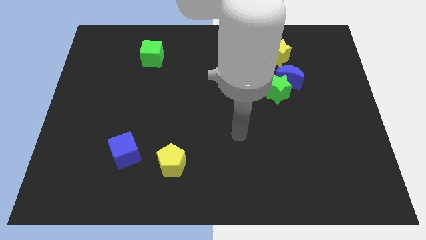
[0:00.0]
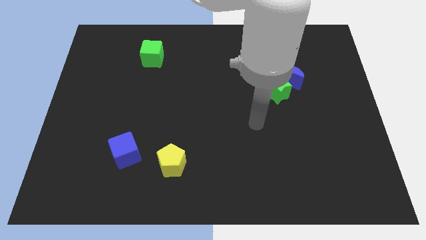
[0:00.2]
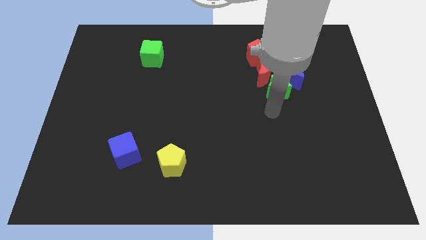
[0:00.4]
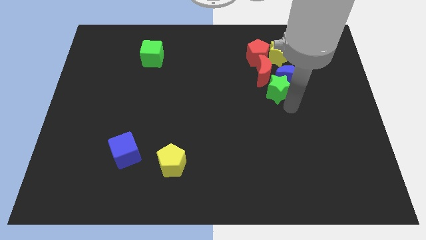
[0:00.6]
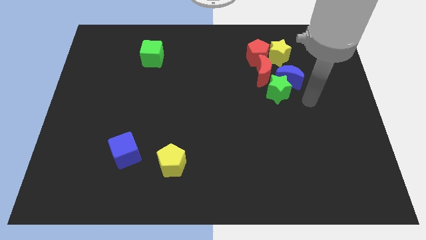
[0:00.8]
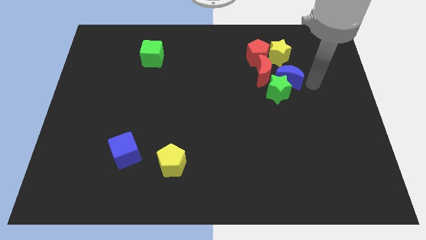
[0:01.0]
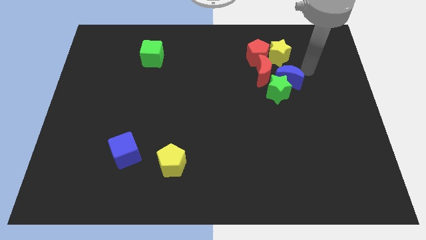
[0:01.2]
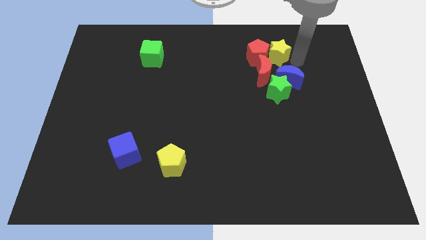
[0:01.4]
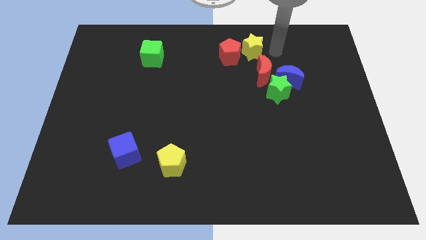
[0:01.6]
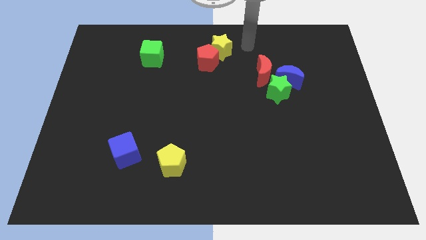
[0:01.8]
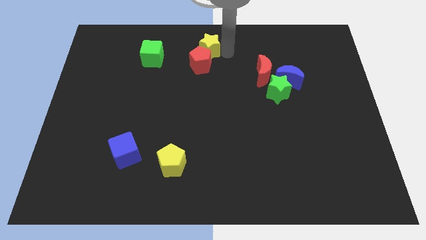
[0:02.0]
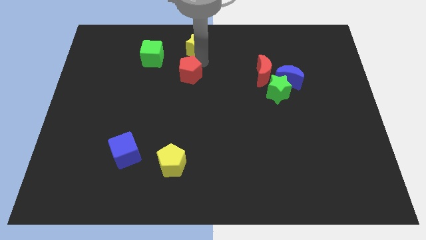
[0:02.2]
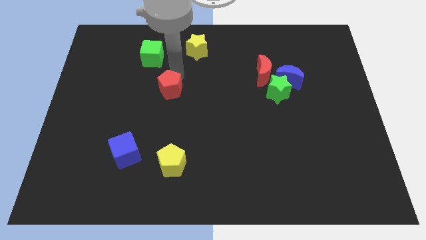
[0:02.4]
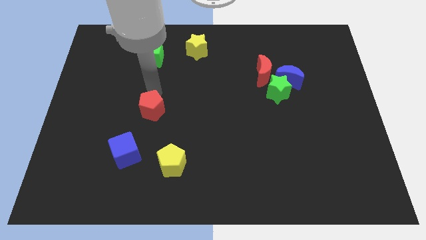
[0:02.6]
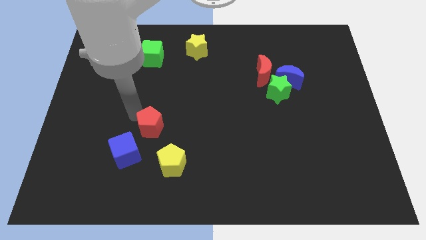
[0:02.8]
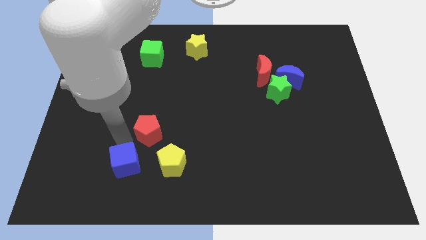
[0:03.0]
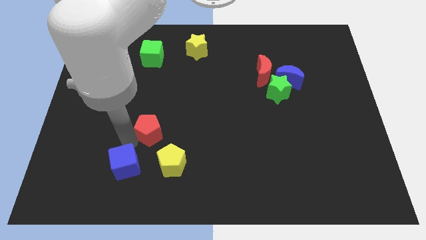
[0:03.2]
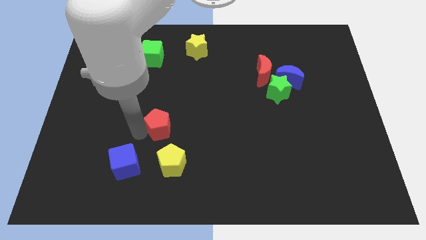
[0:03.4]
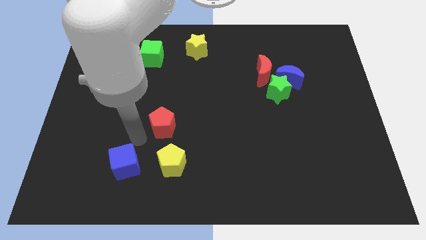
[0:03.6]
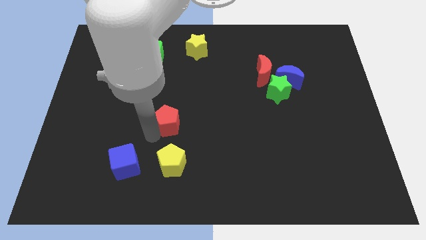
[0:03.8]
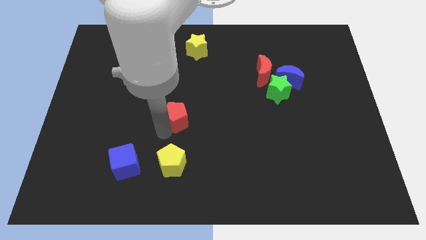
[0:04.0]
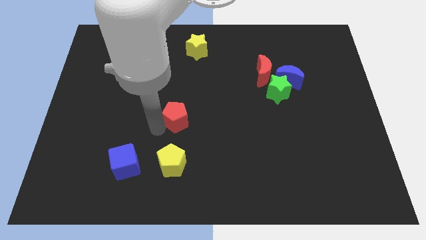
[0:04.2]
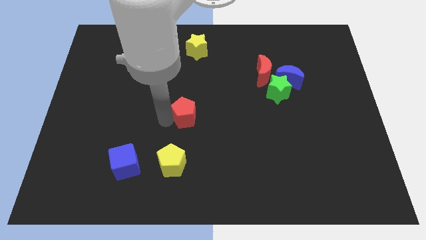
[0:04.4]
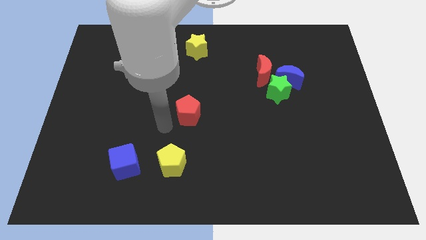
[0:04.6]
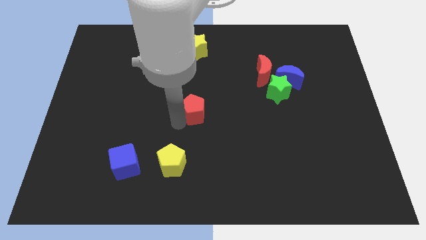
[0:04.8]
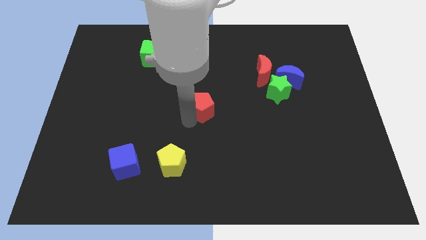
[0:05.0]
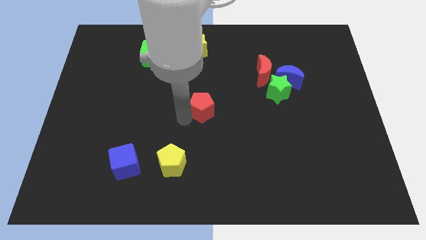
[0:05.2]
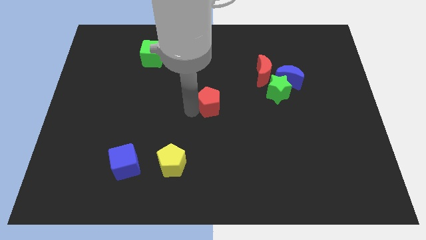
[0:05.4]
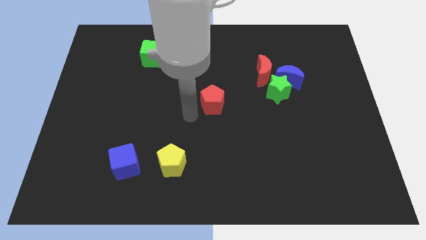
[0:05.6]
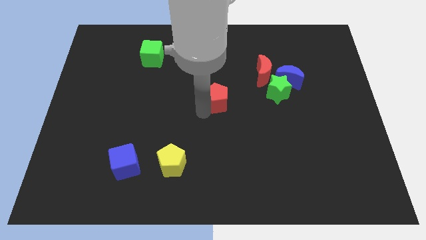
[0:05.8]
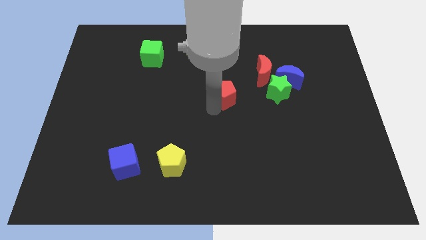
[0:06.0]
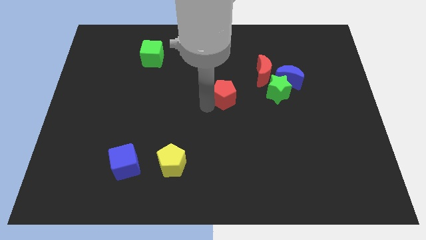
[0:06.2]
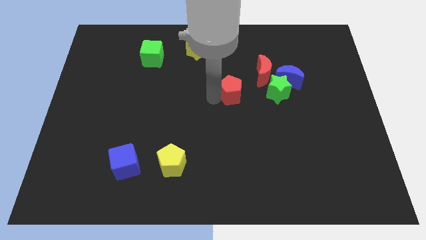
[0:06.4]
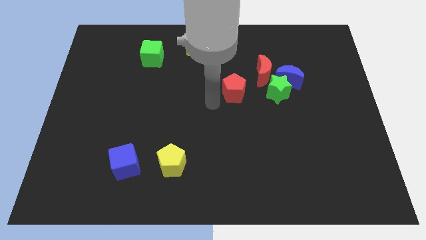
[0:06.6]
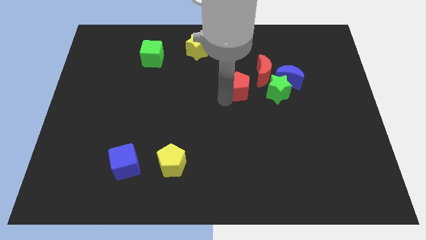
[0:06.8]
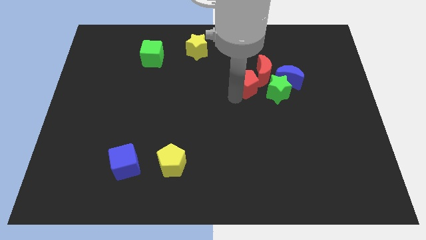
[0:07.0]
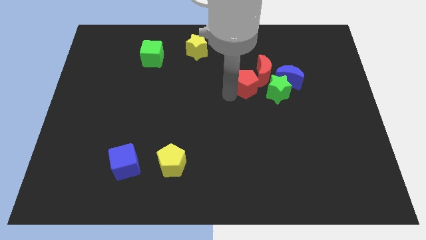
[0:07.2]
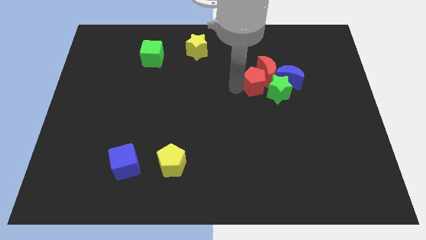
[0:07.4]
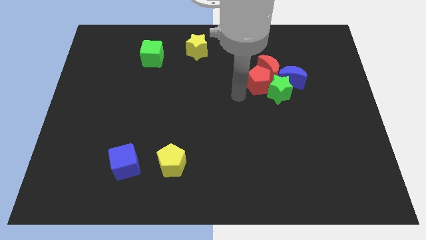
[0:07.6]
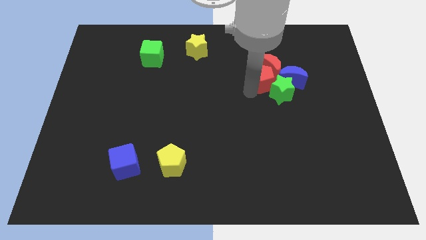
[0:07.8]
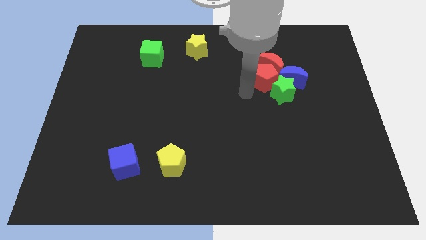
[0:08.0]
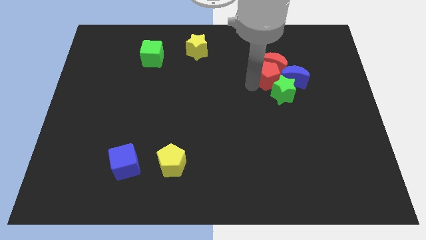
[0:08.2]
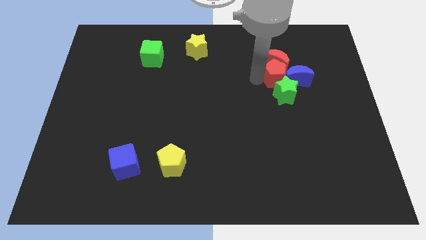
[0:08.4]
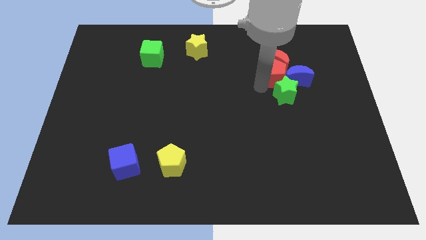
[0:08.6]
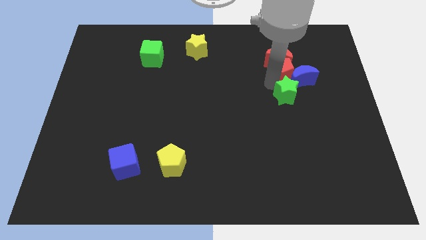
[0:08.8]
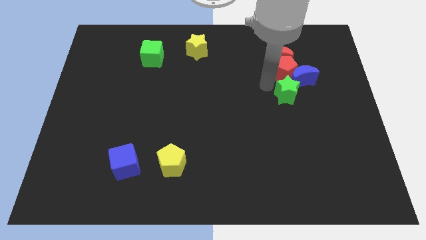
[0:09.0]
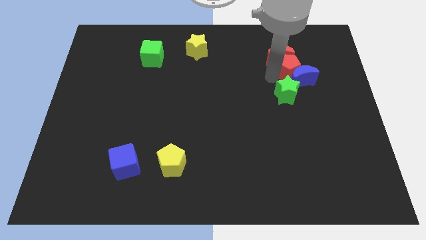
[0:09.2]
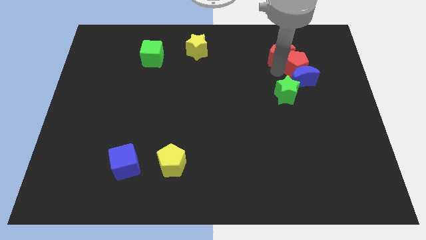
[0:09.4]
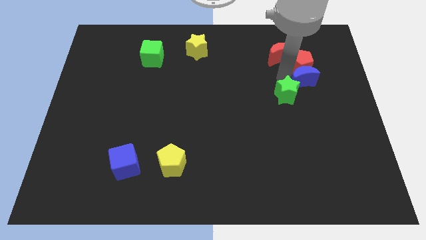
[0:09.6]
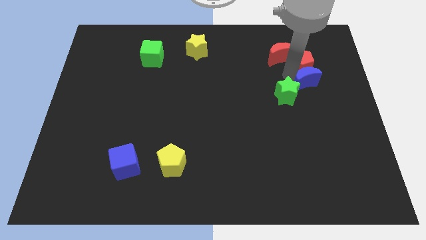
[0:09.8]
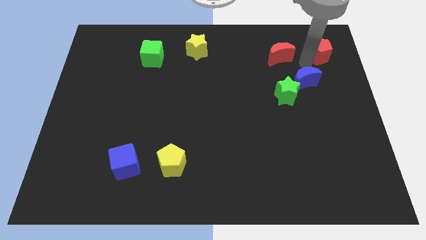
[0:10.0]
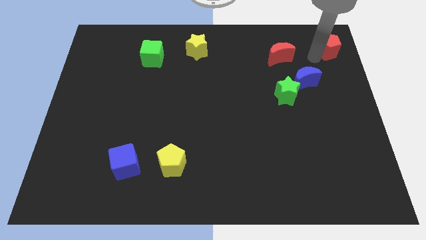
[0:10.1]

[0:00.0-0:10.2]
push the red pentagon to the top right

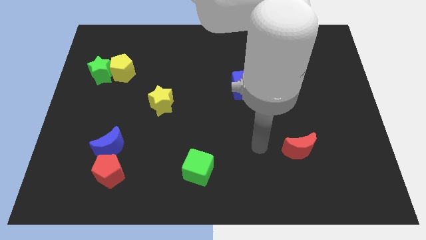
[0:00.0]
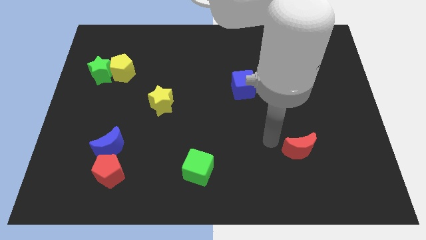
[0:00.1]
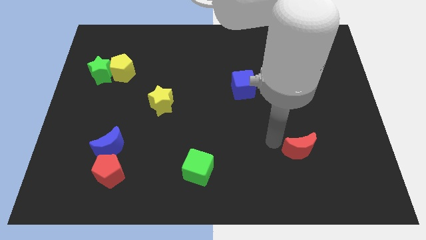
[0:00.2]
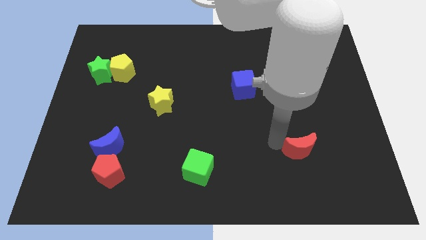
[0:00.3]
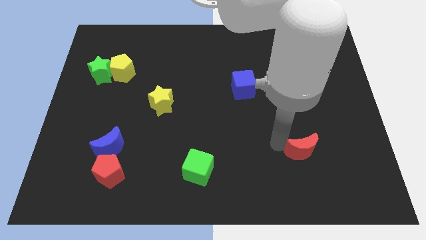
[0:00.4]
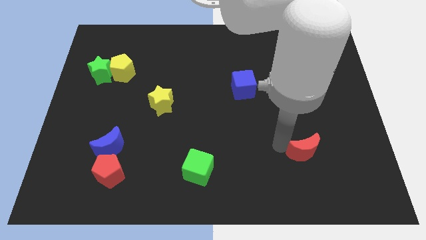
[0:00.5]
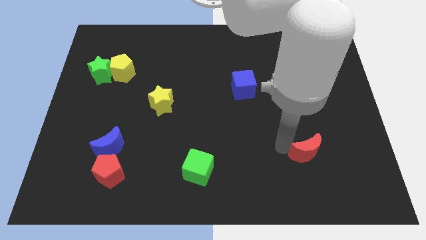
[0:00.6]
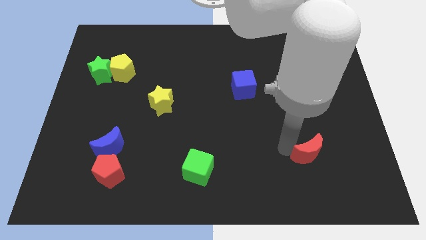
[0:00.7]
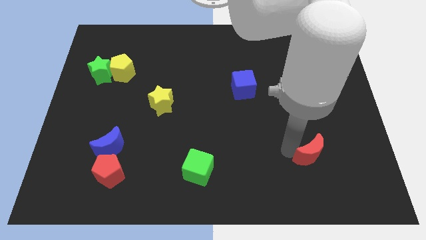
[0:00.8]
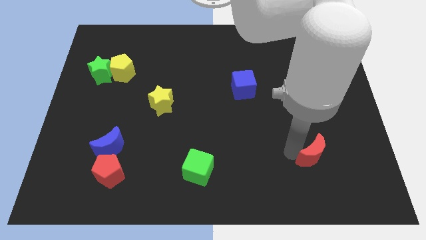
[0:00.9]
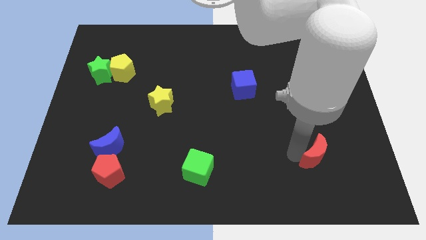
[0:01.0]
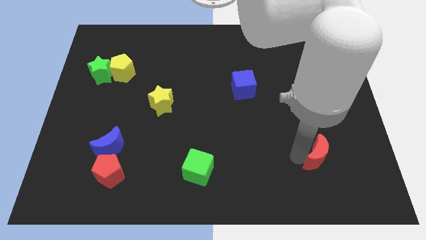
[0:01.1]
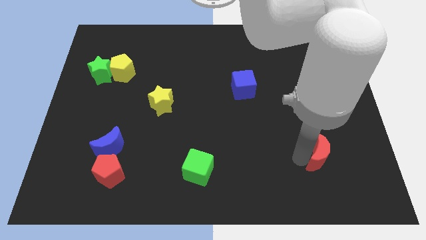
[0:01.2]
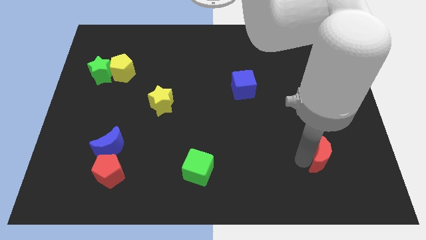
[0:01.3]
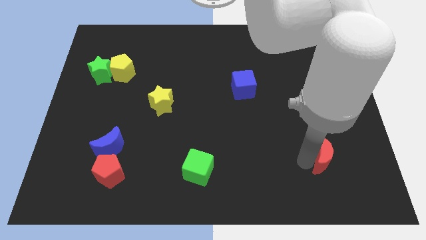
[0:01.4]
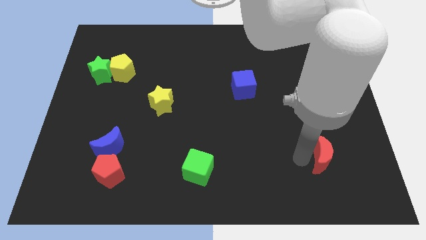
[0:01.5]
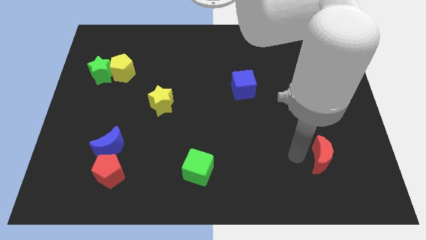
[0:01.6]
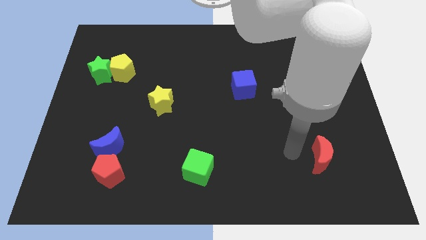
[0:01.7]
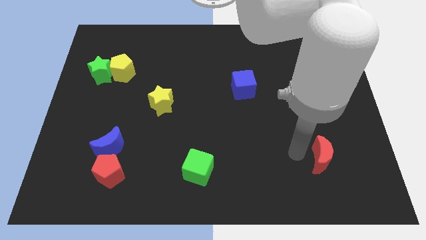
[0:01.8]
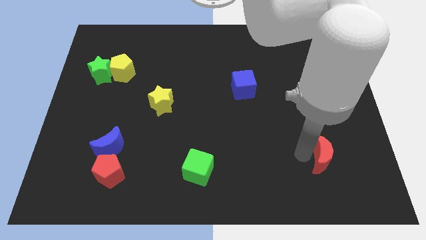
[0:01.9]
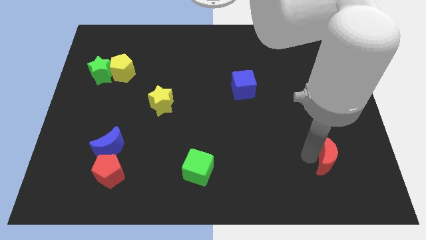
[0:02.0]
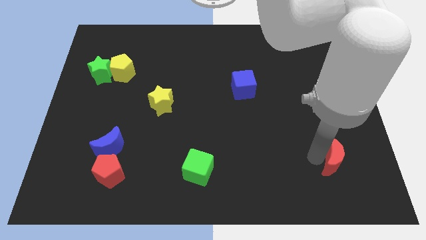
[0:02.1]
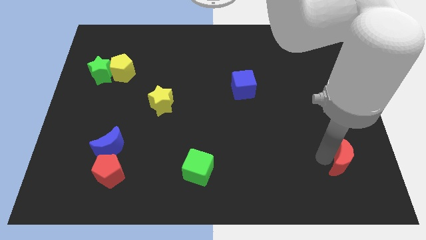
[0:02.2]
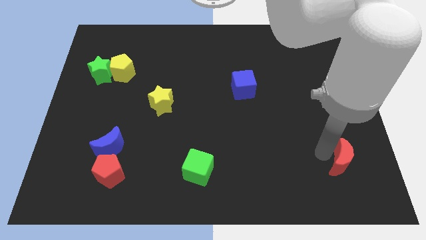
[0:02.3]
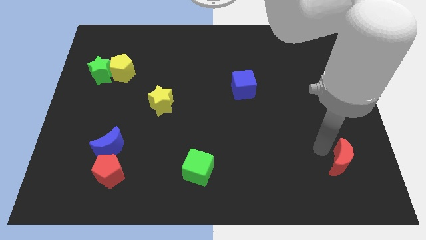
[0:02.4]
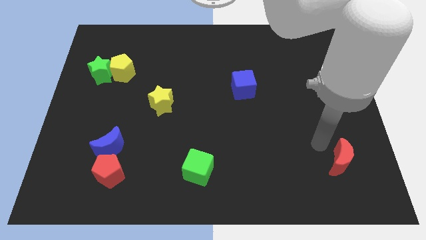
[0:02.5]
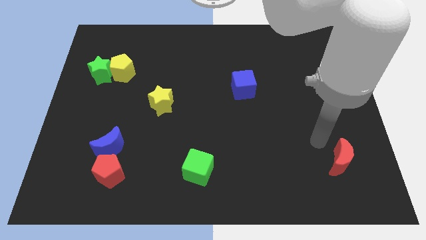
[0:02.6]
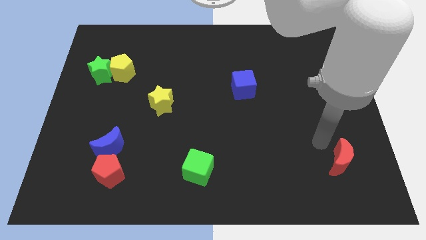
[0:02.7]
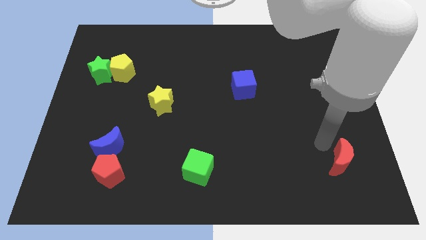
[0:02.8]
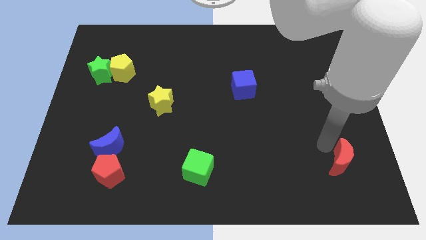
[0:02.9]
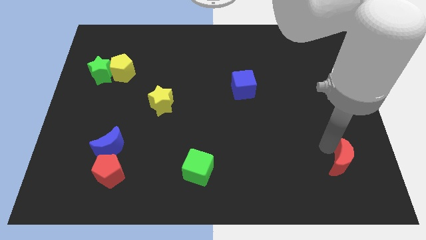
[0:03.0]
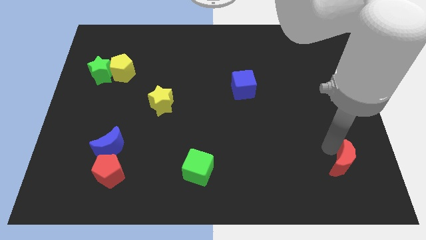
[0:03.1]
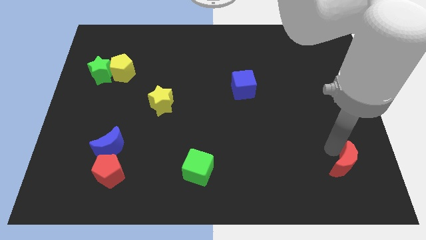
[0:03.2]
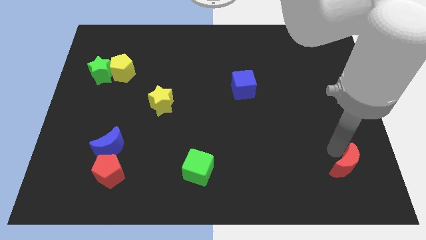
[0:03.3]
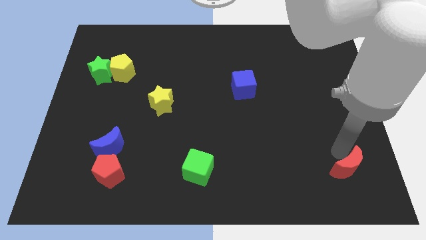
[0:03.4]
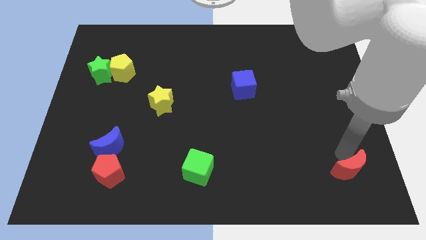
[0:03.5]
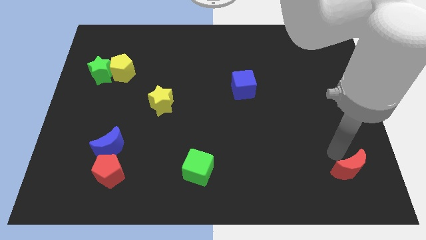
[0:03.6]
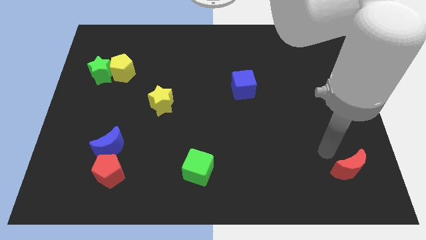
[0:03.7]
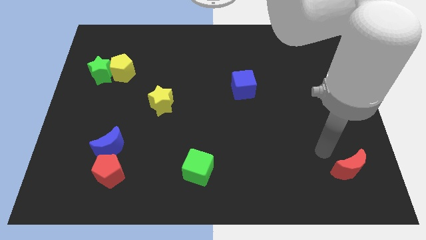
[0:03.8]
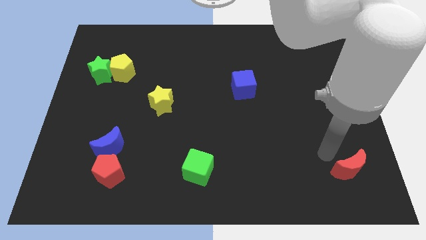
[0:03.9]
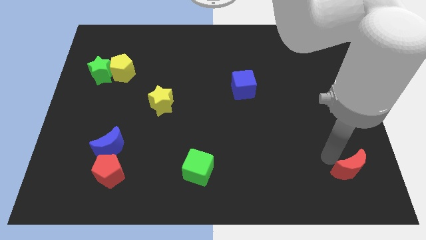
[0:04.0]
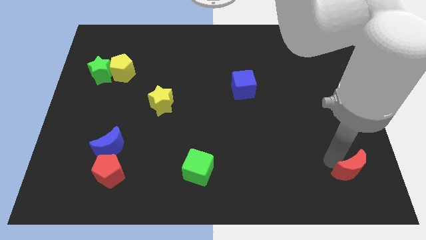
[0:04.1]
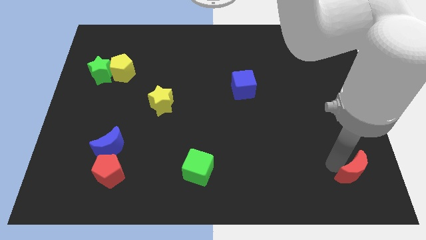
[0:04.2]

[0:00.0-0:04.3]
put the red moon to the bottom right
